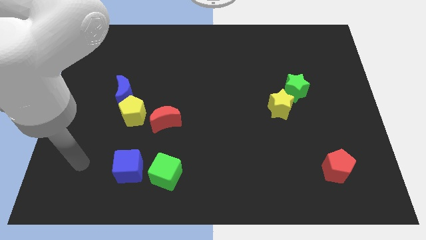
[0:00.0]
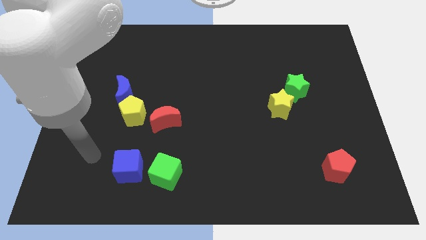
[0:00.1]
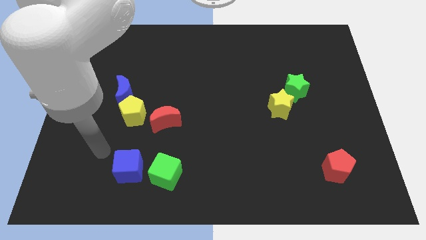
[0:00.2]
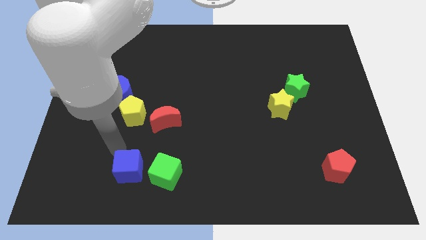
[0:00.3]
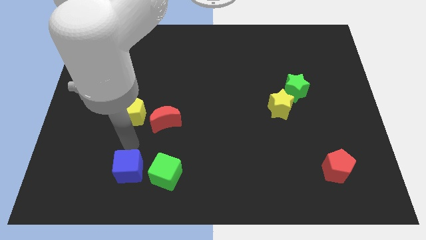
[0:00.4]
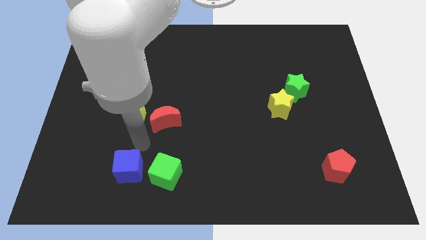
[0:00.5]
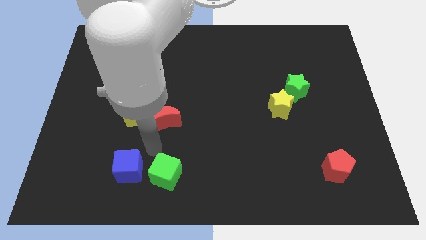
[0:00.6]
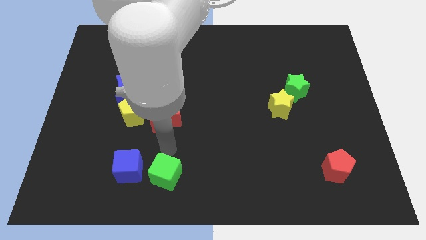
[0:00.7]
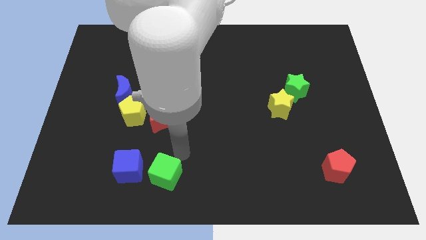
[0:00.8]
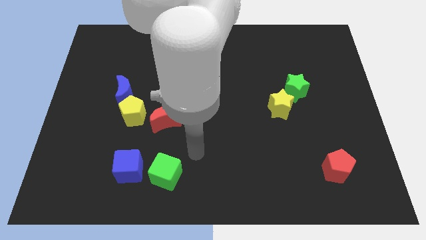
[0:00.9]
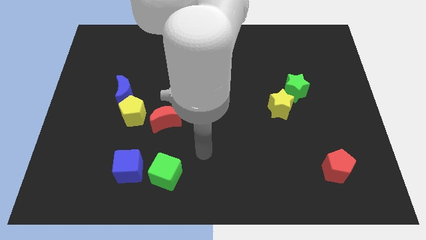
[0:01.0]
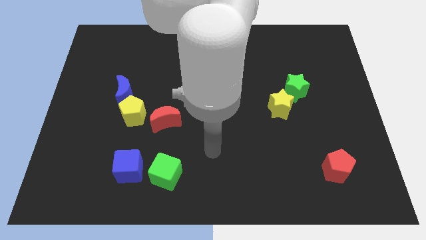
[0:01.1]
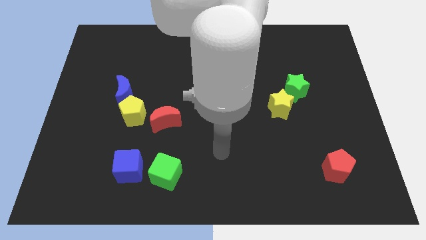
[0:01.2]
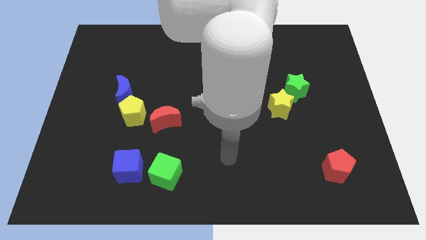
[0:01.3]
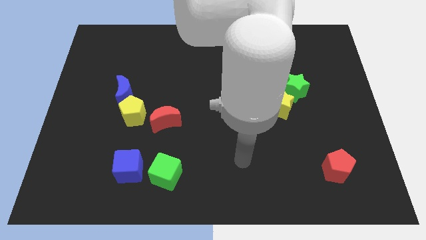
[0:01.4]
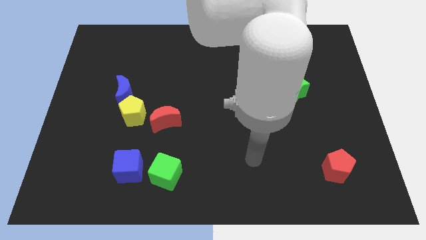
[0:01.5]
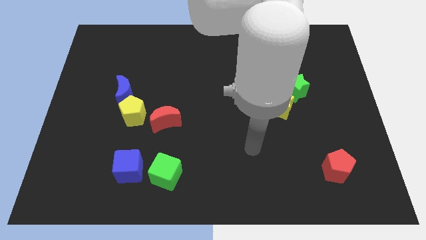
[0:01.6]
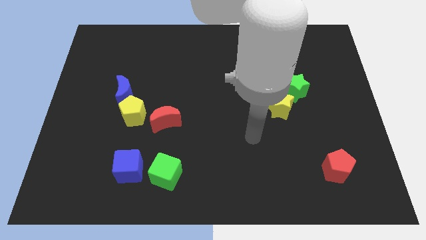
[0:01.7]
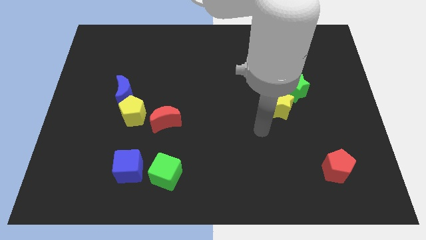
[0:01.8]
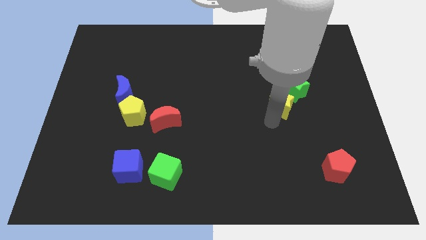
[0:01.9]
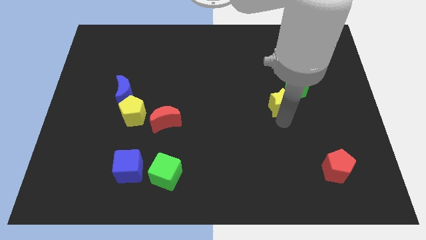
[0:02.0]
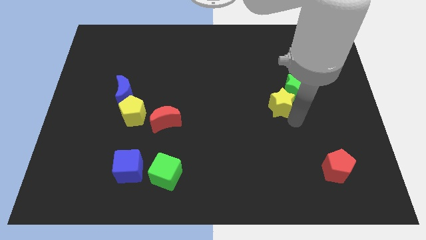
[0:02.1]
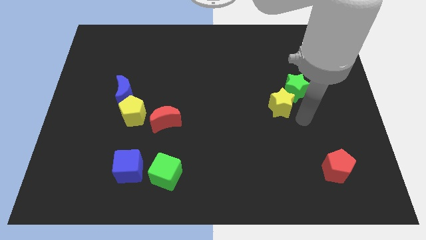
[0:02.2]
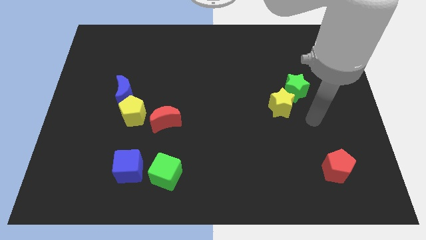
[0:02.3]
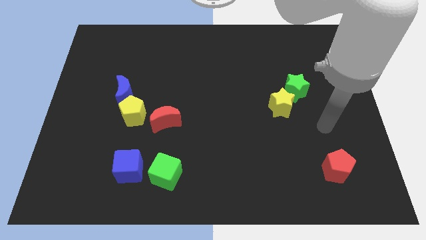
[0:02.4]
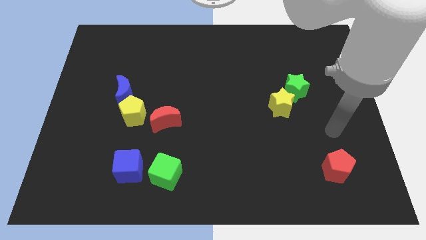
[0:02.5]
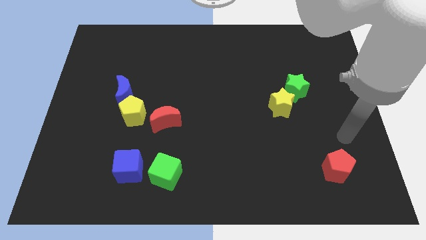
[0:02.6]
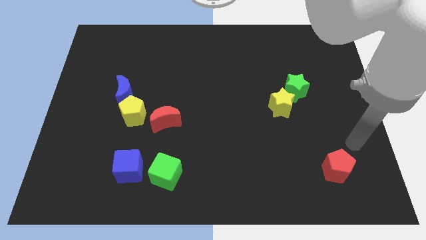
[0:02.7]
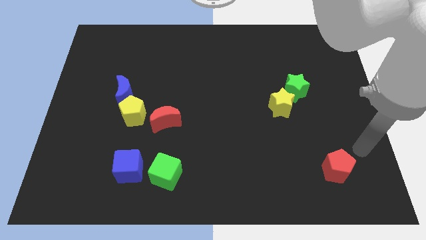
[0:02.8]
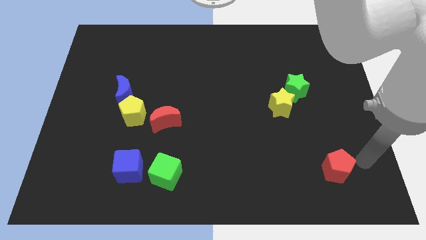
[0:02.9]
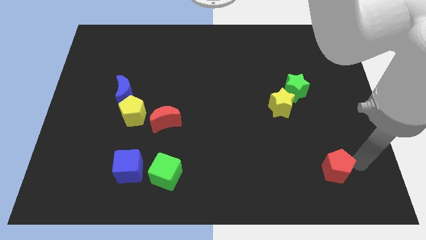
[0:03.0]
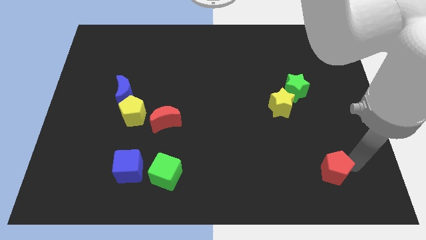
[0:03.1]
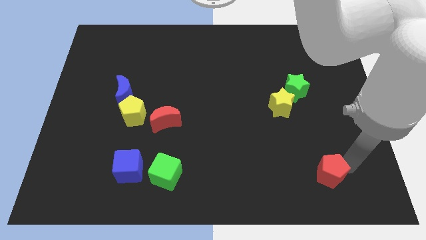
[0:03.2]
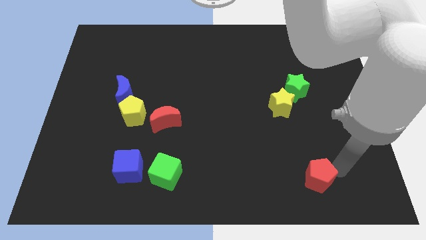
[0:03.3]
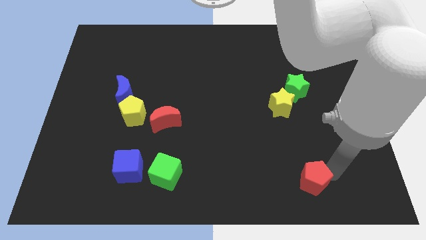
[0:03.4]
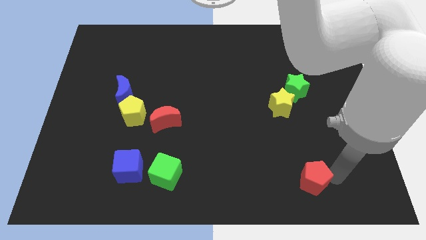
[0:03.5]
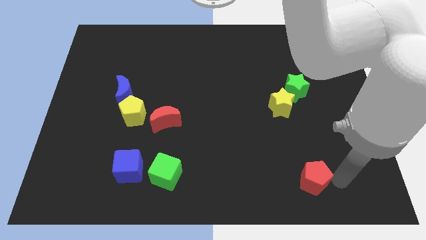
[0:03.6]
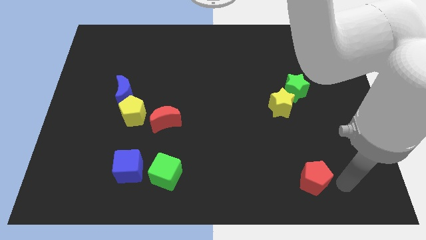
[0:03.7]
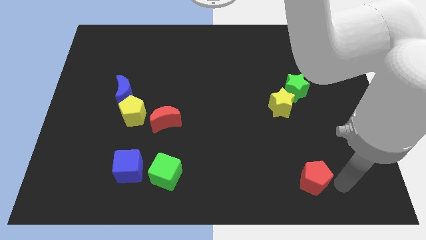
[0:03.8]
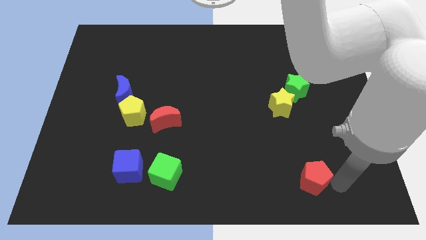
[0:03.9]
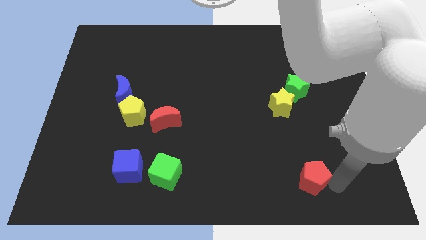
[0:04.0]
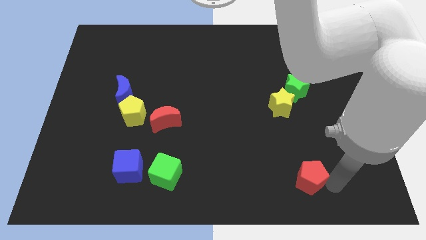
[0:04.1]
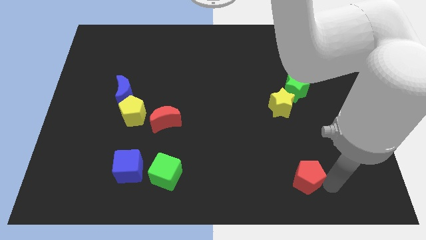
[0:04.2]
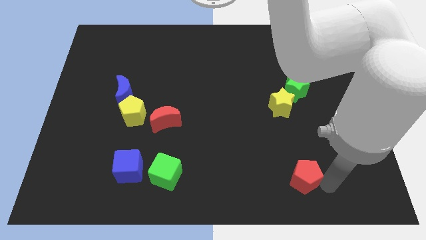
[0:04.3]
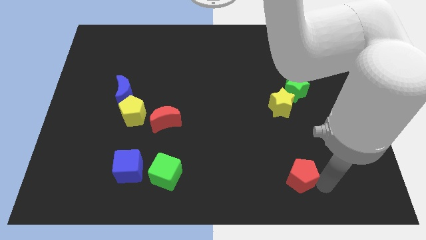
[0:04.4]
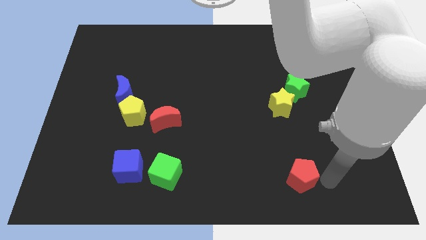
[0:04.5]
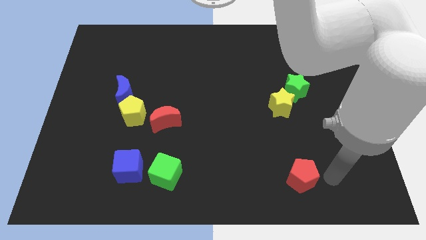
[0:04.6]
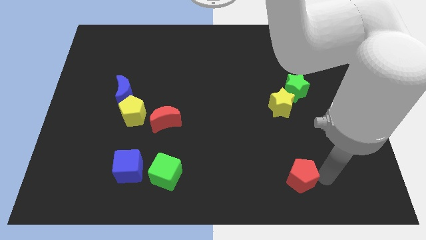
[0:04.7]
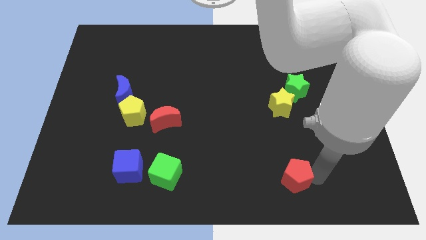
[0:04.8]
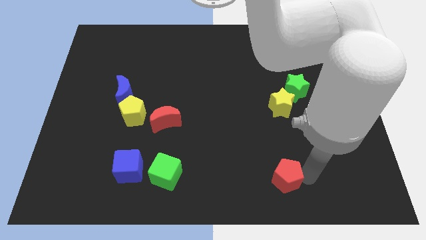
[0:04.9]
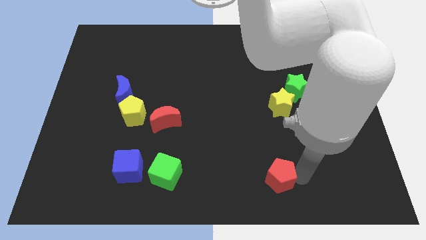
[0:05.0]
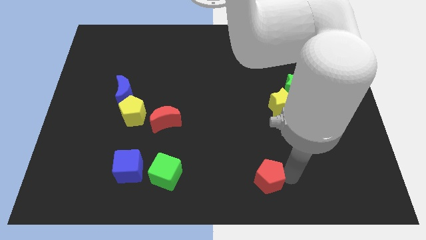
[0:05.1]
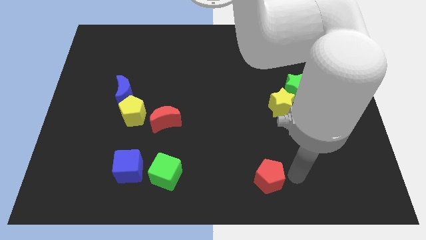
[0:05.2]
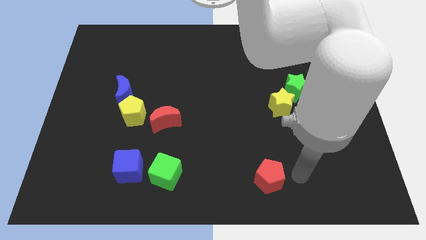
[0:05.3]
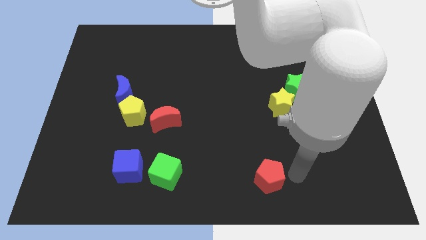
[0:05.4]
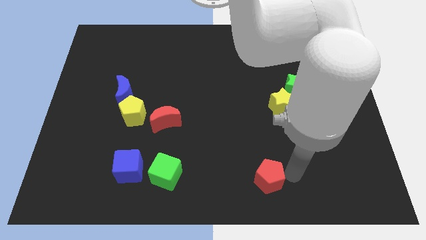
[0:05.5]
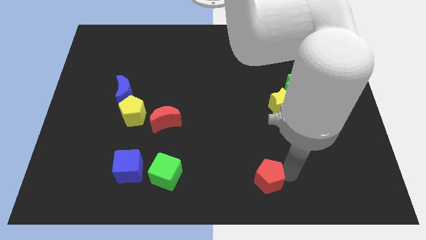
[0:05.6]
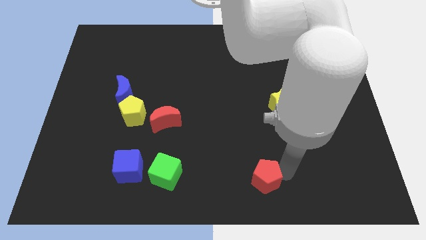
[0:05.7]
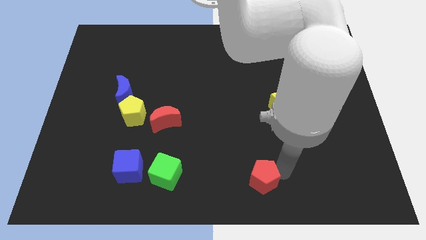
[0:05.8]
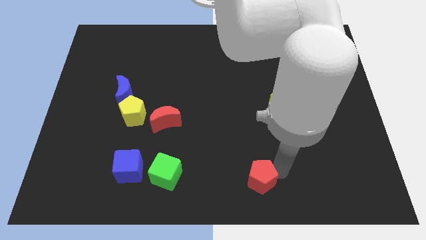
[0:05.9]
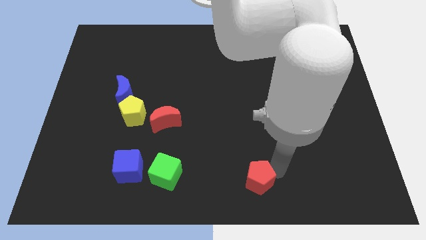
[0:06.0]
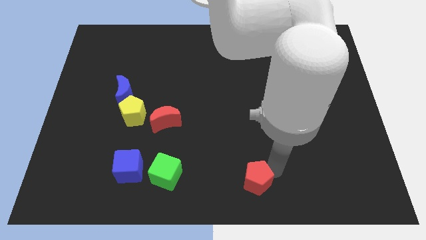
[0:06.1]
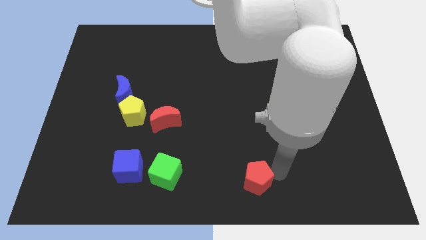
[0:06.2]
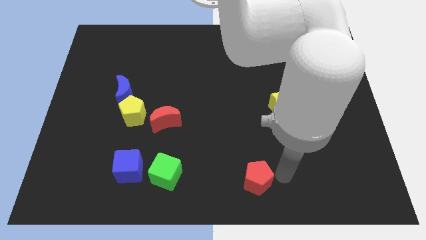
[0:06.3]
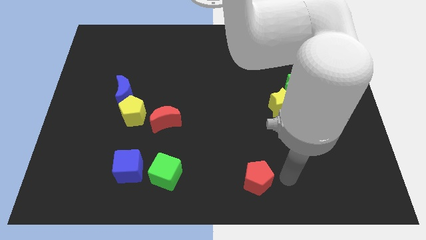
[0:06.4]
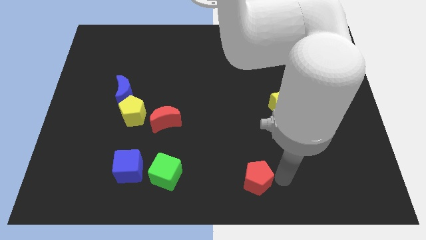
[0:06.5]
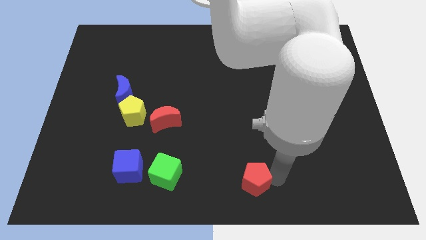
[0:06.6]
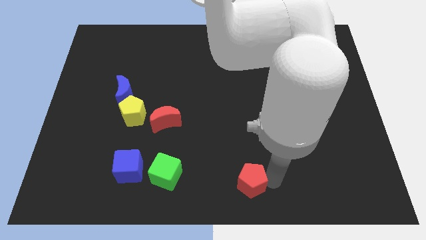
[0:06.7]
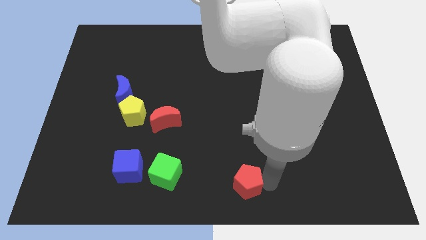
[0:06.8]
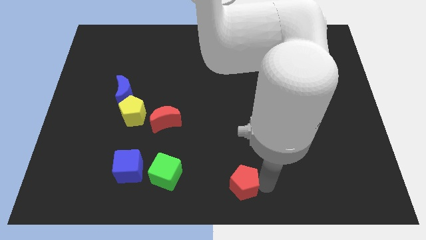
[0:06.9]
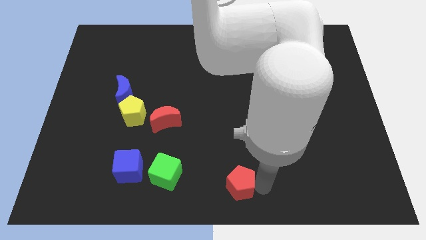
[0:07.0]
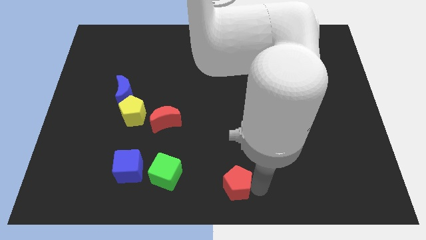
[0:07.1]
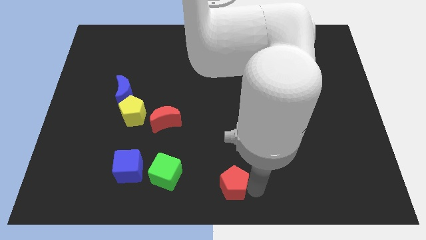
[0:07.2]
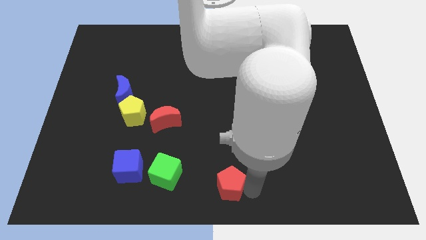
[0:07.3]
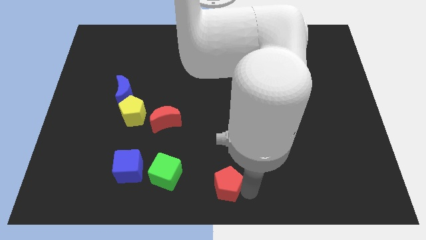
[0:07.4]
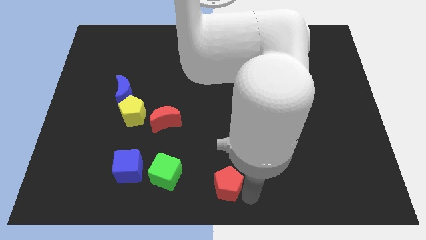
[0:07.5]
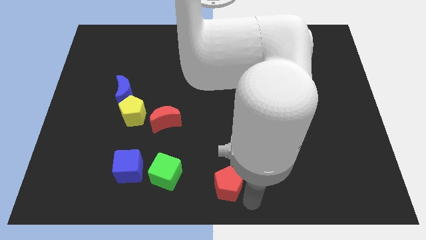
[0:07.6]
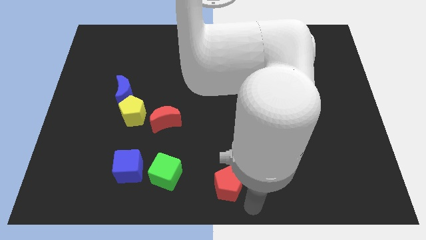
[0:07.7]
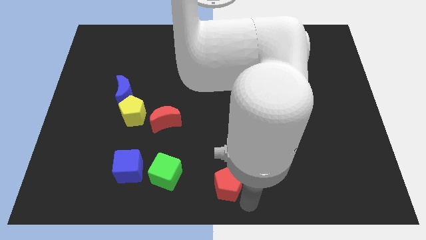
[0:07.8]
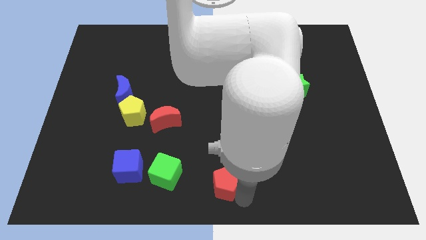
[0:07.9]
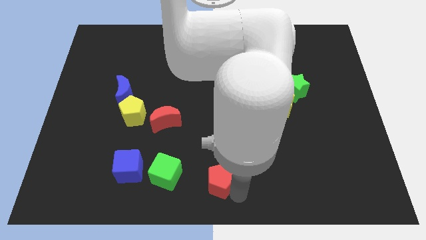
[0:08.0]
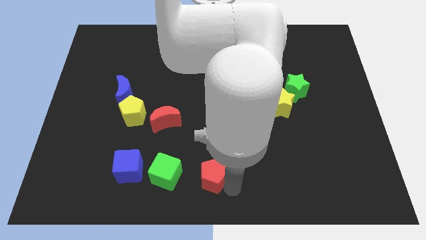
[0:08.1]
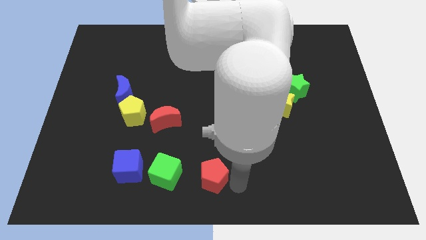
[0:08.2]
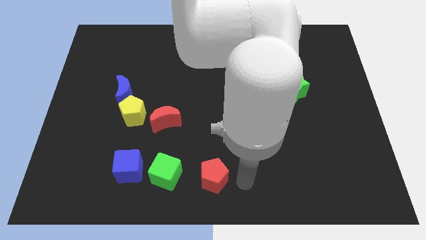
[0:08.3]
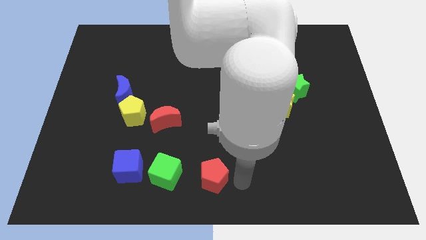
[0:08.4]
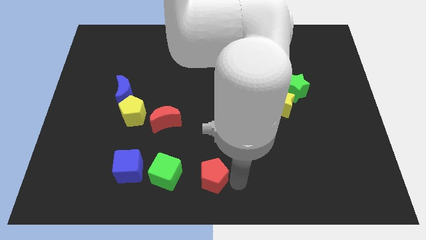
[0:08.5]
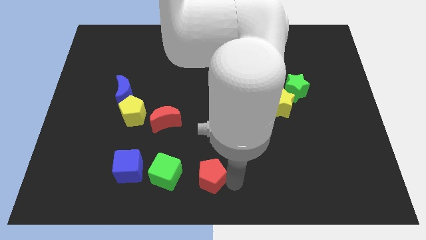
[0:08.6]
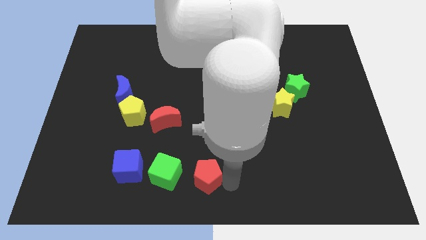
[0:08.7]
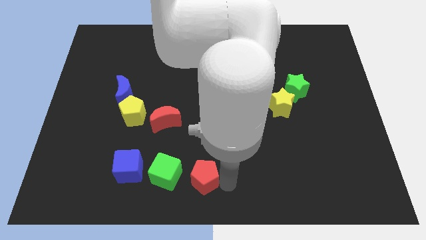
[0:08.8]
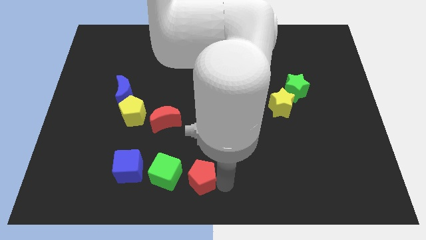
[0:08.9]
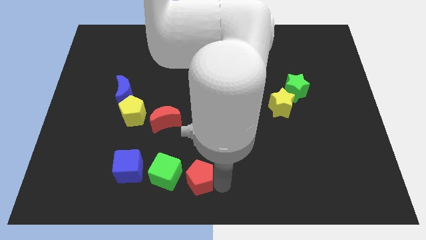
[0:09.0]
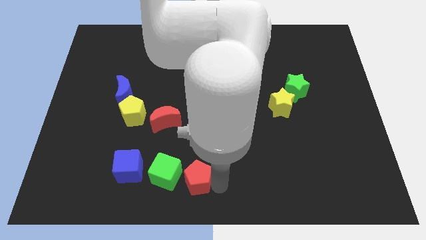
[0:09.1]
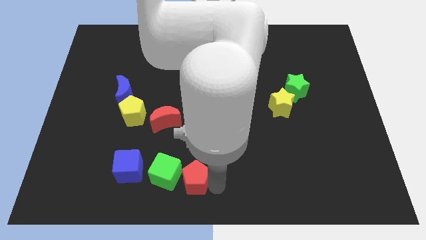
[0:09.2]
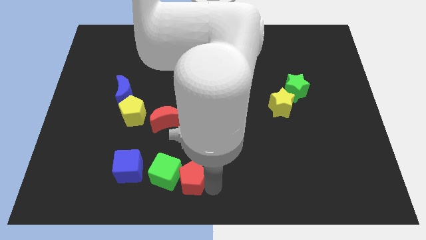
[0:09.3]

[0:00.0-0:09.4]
put the red pentagon to the green cube
